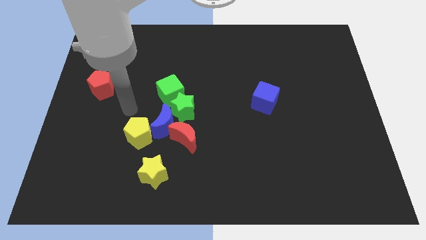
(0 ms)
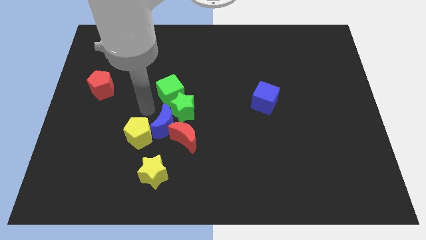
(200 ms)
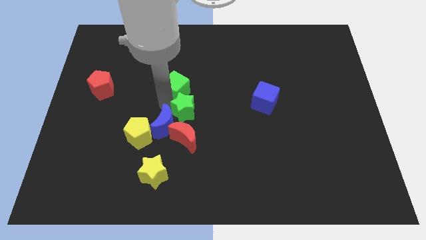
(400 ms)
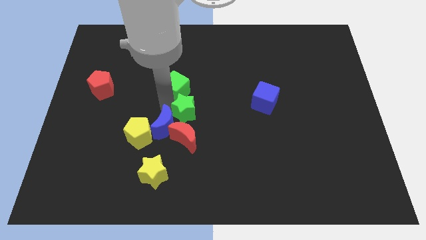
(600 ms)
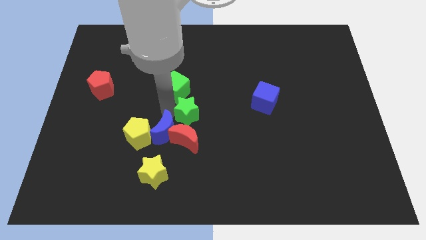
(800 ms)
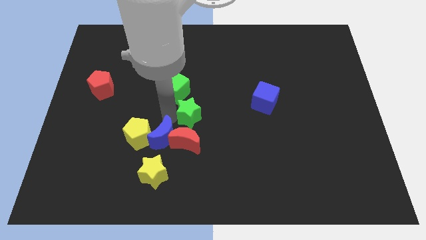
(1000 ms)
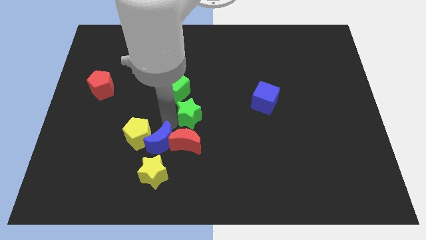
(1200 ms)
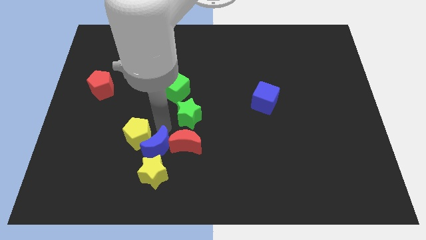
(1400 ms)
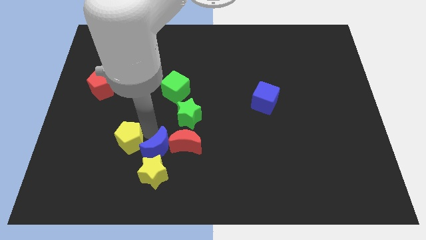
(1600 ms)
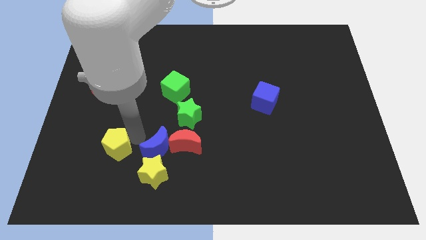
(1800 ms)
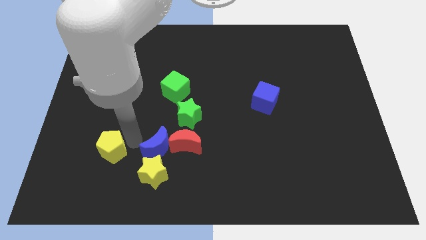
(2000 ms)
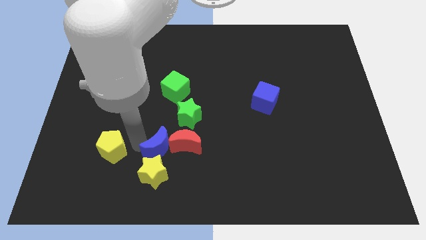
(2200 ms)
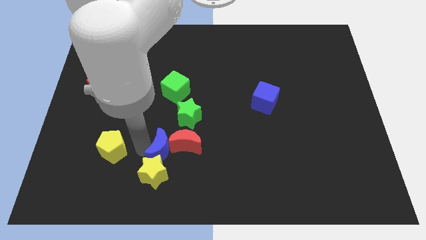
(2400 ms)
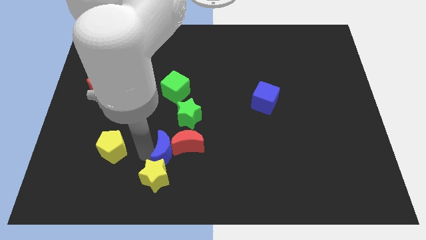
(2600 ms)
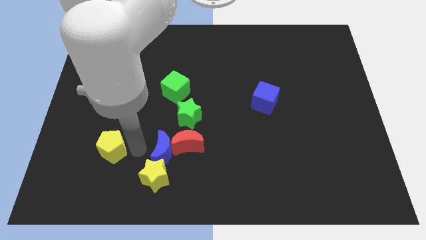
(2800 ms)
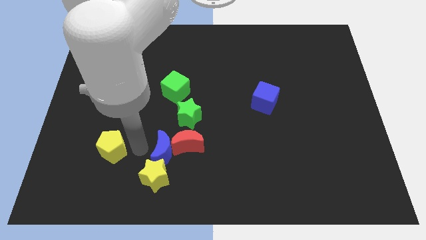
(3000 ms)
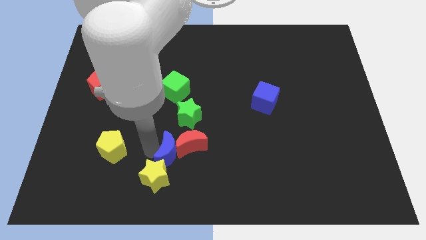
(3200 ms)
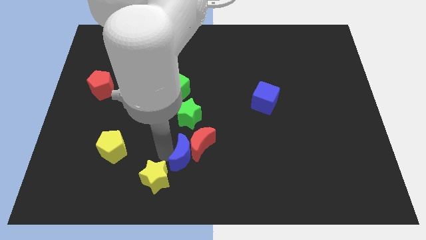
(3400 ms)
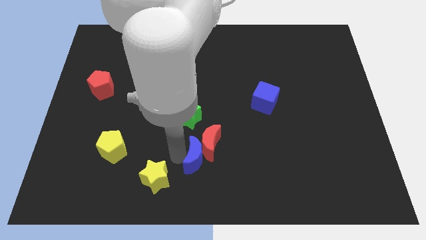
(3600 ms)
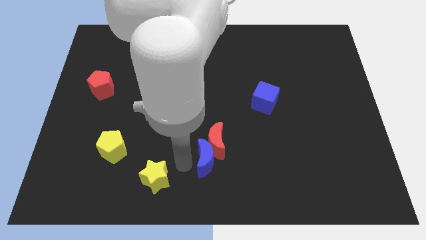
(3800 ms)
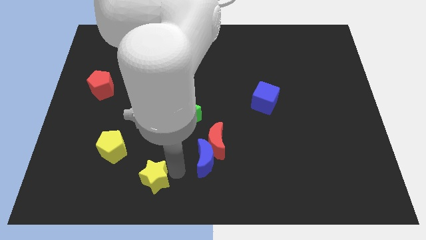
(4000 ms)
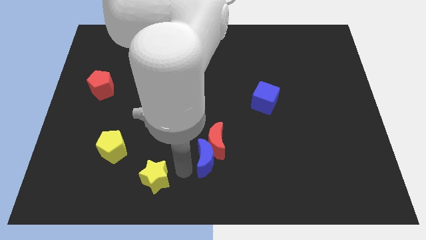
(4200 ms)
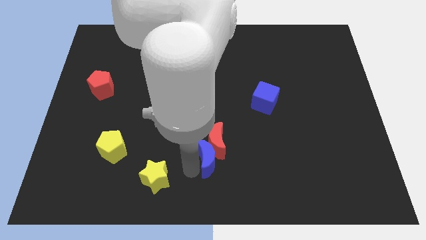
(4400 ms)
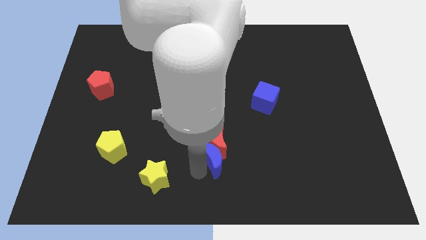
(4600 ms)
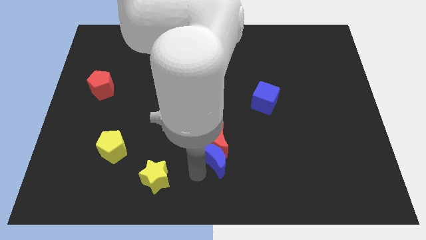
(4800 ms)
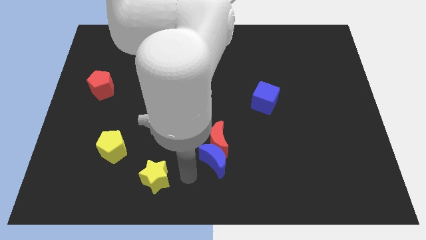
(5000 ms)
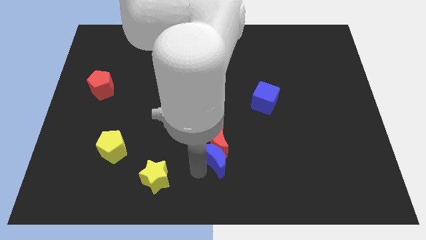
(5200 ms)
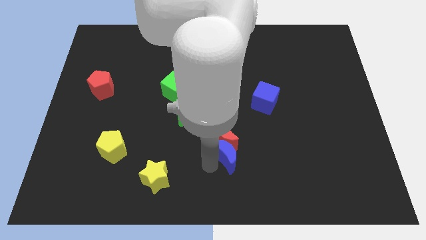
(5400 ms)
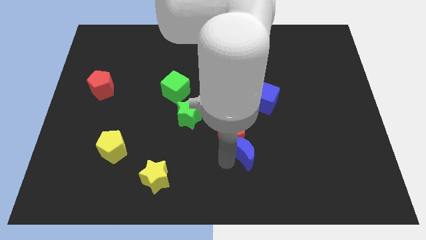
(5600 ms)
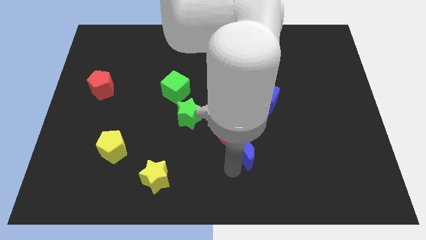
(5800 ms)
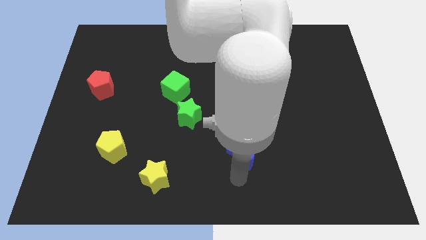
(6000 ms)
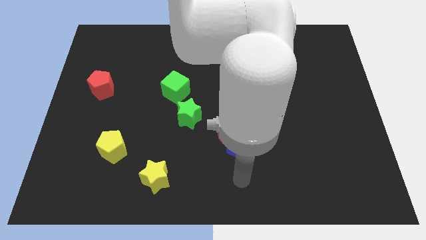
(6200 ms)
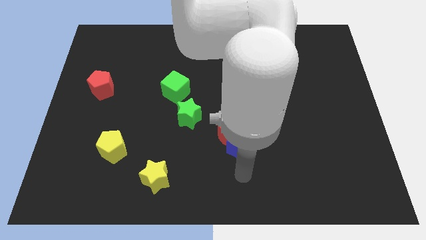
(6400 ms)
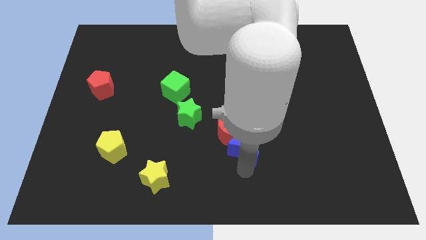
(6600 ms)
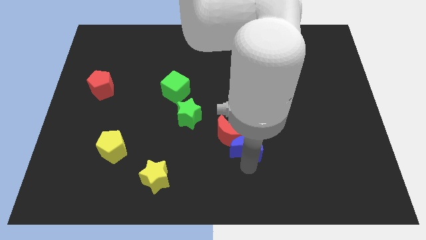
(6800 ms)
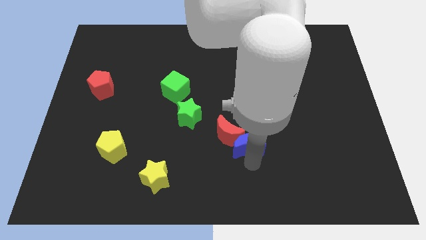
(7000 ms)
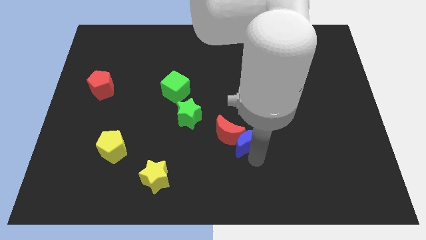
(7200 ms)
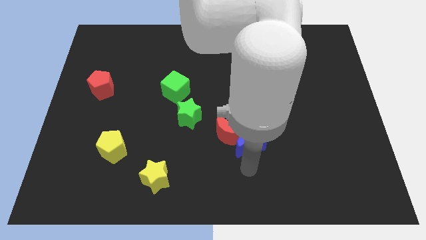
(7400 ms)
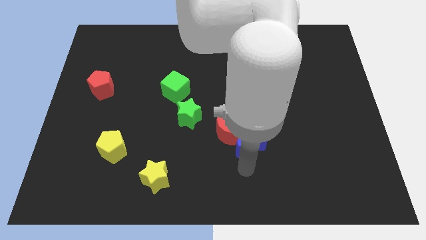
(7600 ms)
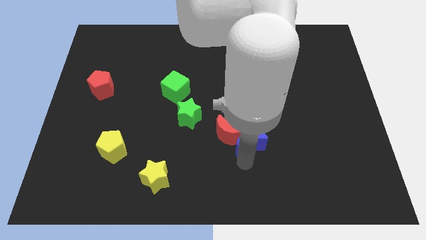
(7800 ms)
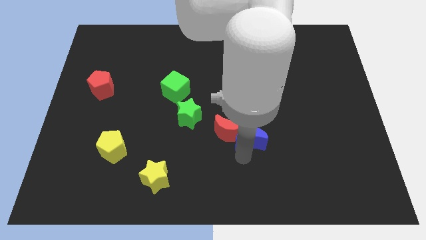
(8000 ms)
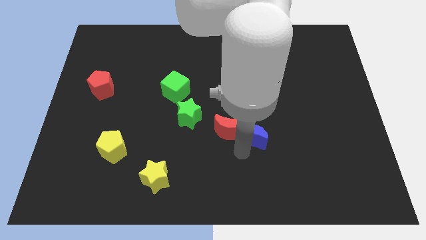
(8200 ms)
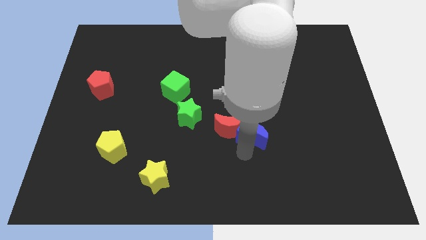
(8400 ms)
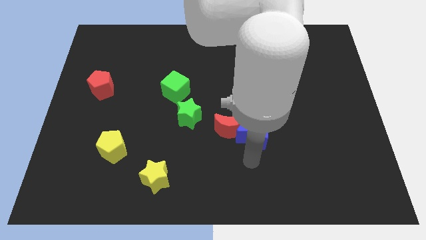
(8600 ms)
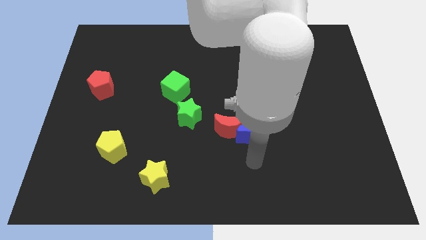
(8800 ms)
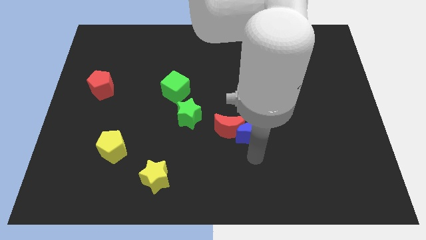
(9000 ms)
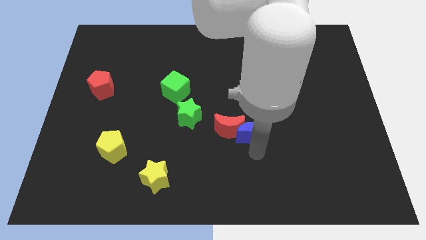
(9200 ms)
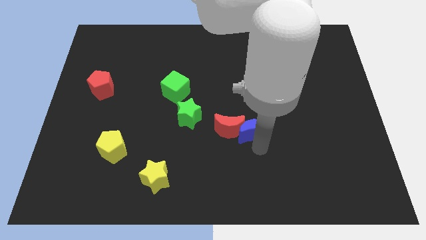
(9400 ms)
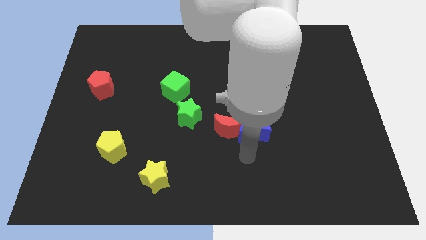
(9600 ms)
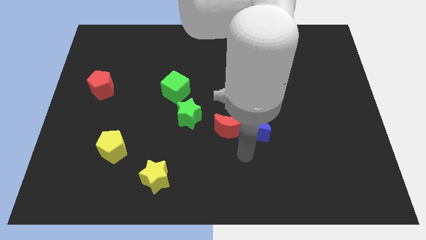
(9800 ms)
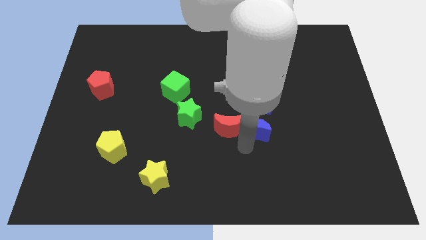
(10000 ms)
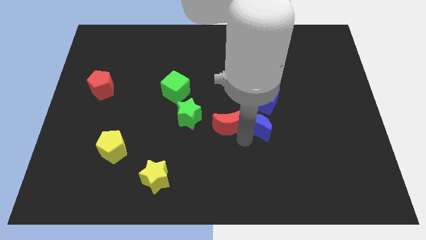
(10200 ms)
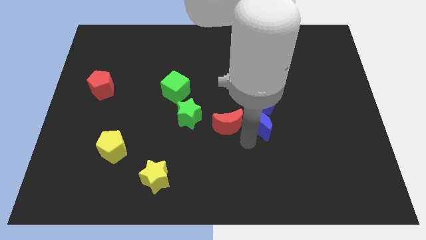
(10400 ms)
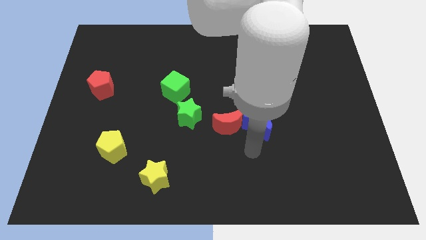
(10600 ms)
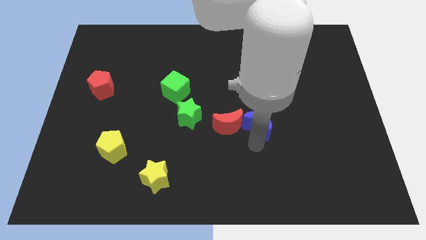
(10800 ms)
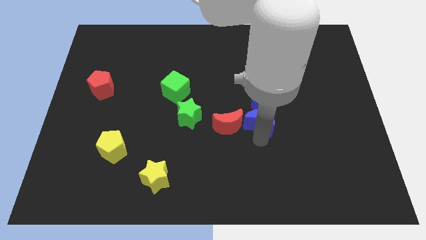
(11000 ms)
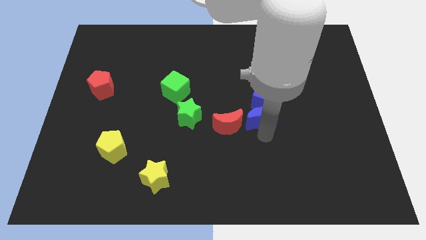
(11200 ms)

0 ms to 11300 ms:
move the blue moon next to the blue cube
